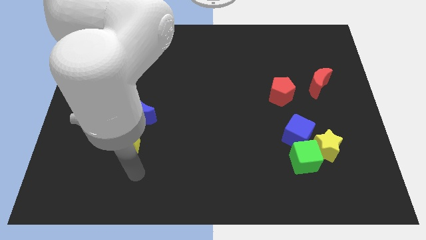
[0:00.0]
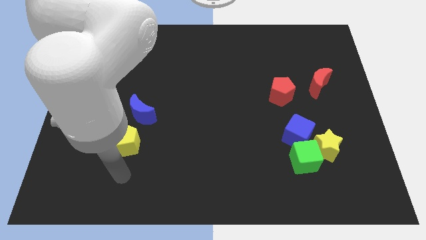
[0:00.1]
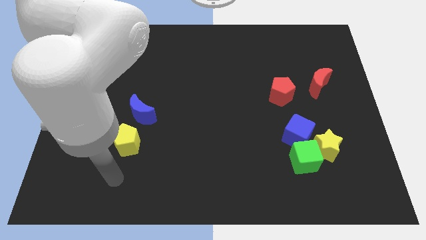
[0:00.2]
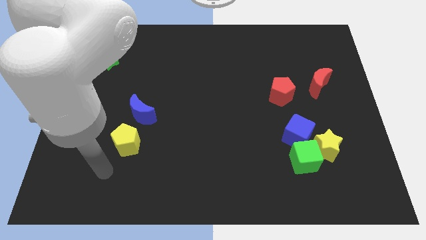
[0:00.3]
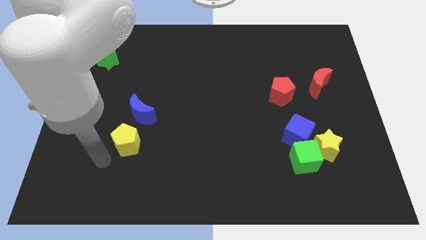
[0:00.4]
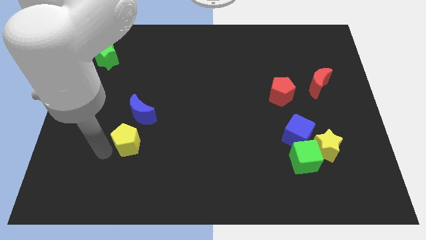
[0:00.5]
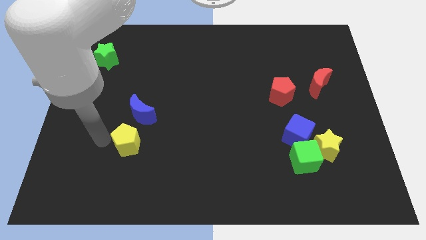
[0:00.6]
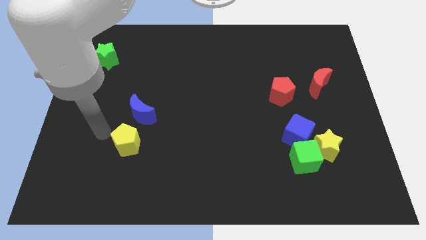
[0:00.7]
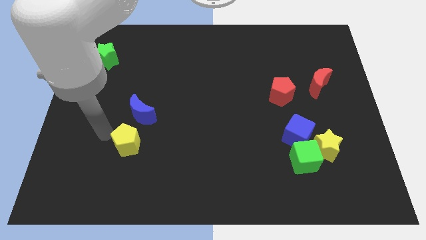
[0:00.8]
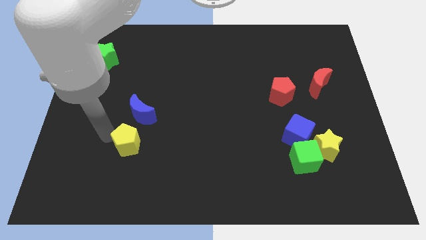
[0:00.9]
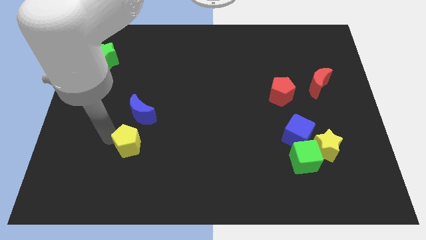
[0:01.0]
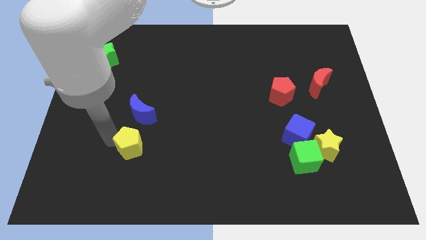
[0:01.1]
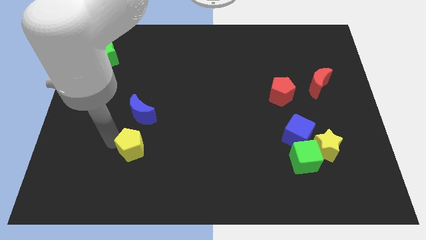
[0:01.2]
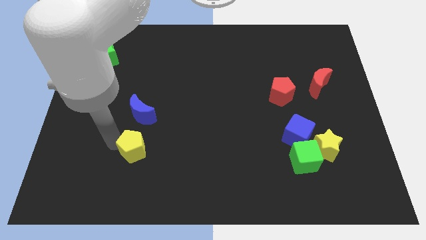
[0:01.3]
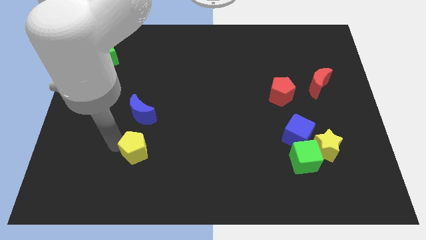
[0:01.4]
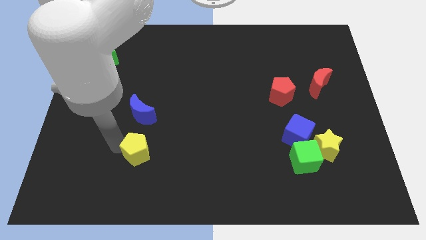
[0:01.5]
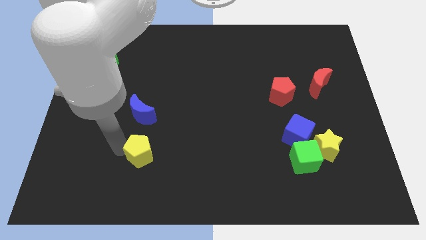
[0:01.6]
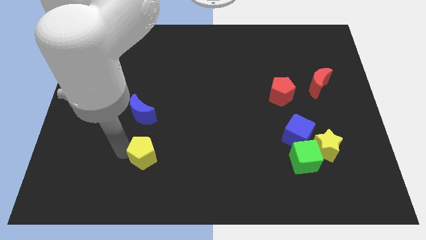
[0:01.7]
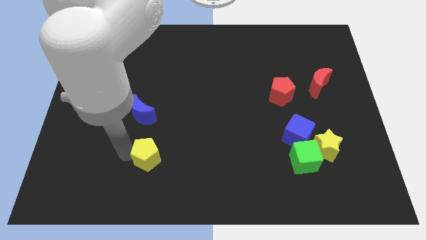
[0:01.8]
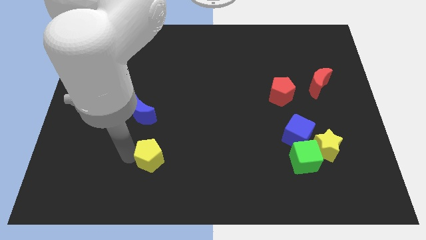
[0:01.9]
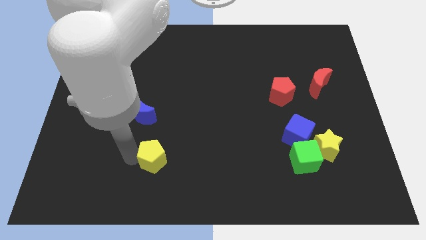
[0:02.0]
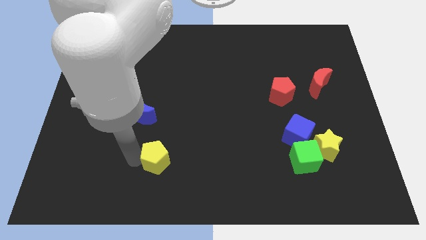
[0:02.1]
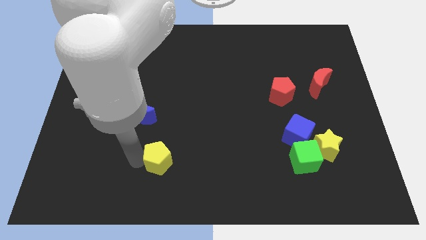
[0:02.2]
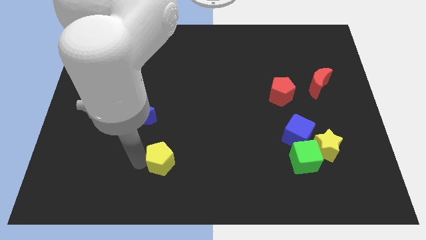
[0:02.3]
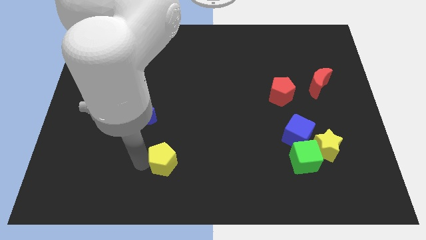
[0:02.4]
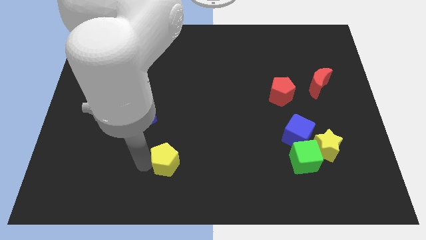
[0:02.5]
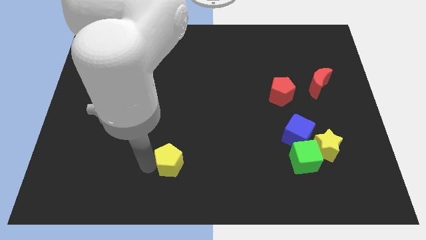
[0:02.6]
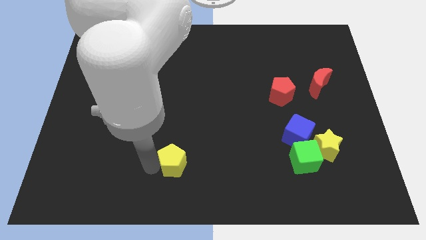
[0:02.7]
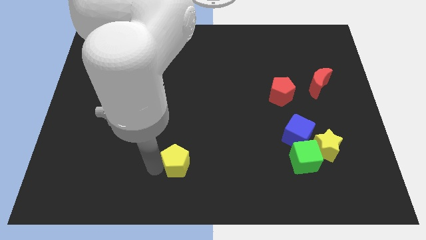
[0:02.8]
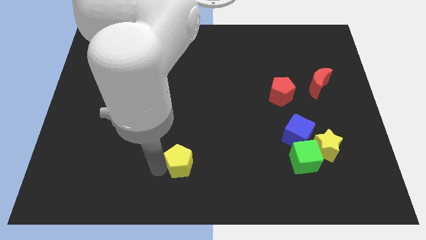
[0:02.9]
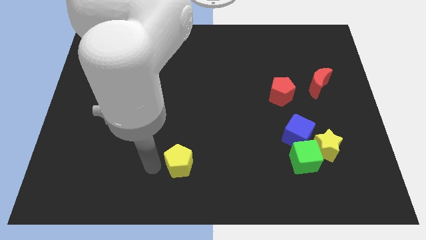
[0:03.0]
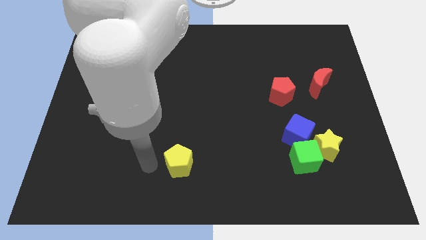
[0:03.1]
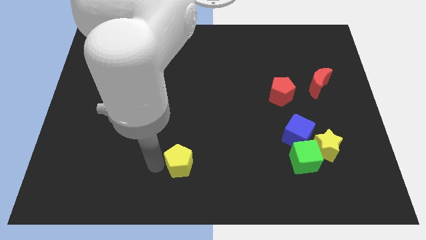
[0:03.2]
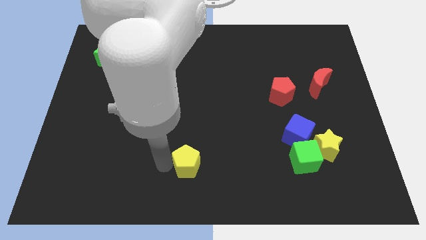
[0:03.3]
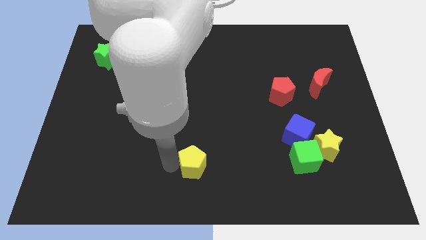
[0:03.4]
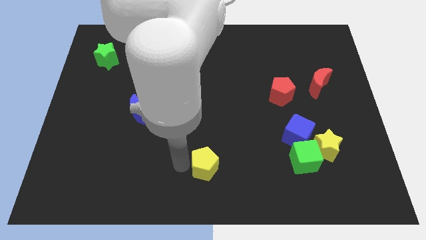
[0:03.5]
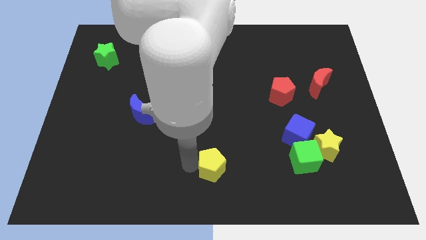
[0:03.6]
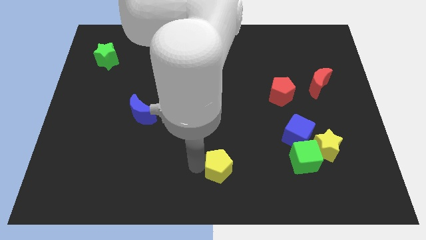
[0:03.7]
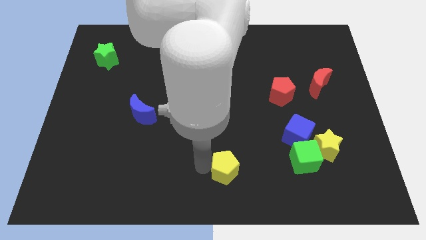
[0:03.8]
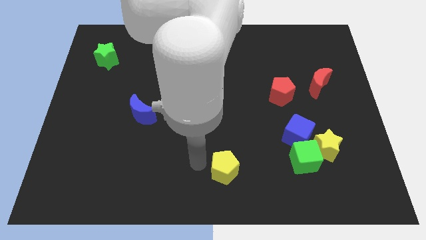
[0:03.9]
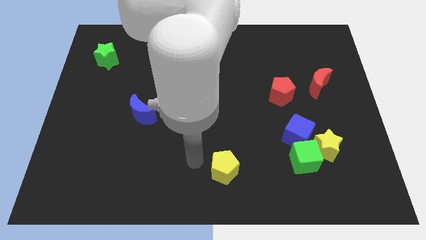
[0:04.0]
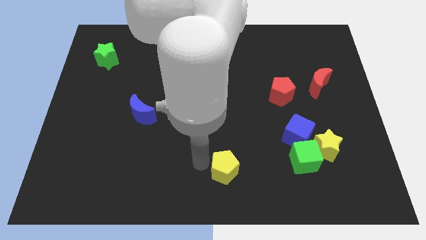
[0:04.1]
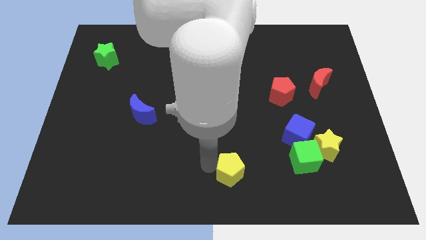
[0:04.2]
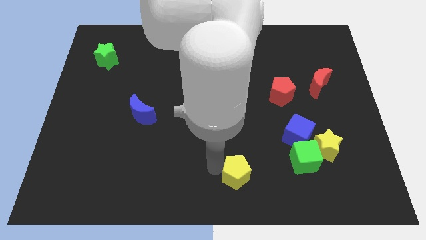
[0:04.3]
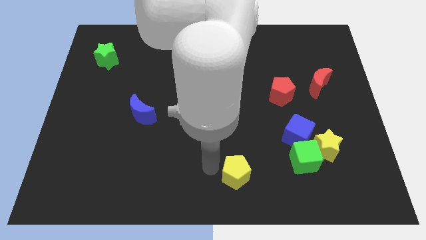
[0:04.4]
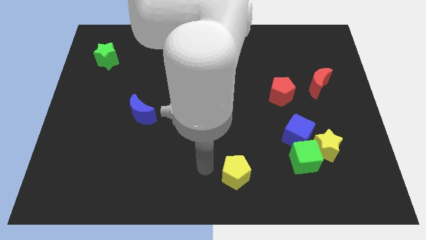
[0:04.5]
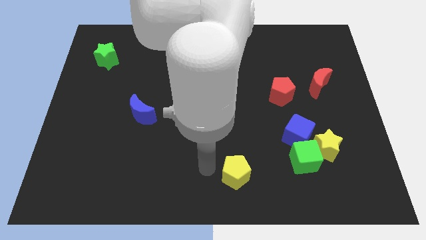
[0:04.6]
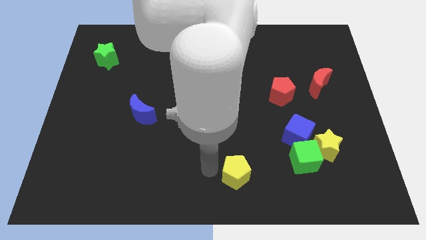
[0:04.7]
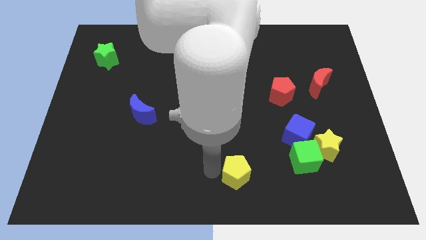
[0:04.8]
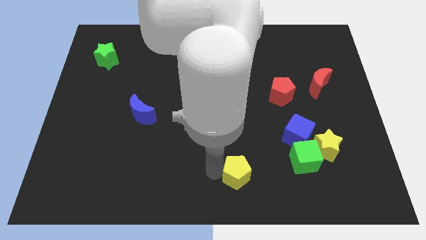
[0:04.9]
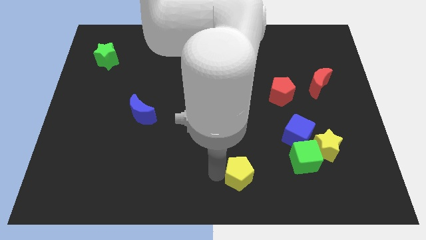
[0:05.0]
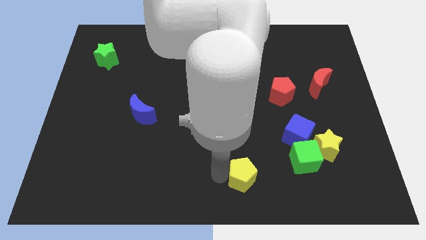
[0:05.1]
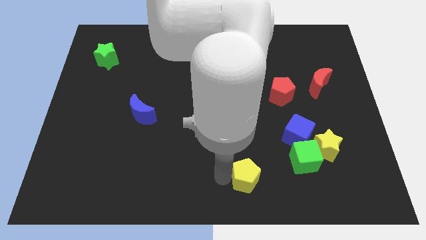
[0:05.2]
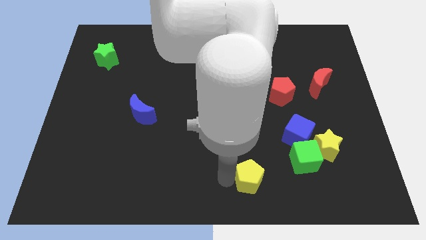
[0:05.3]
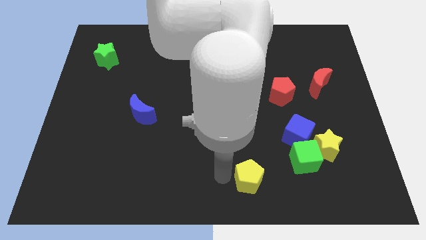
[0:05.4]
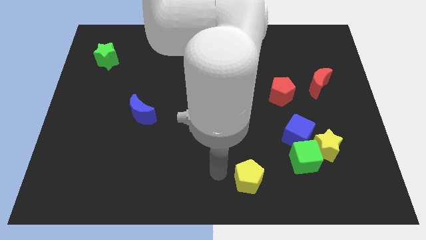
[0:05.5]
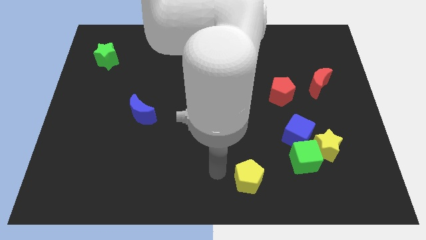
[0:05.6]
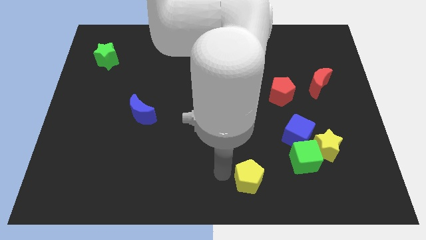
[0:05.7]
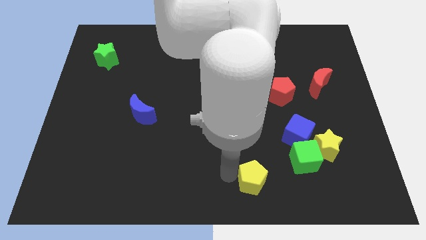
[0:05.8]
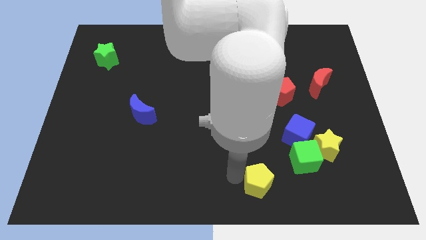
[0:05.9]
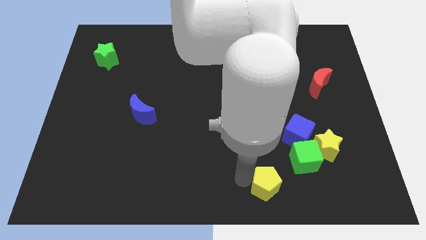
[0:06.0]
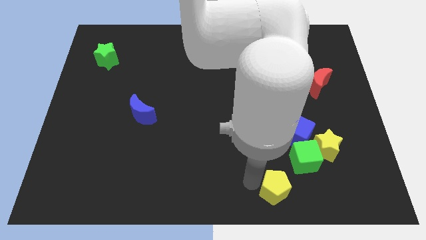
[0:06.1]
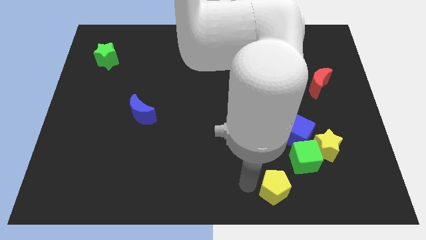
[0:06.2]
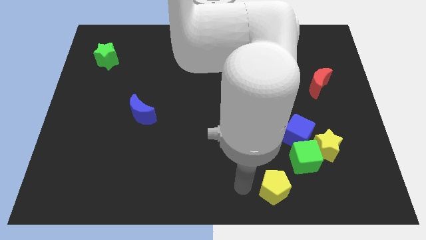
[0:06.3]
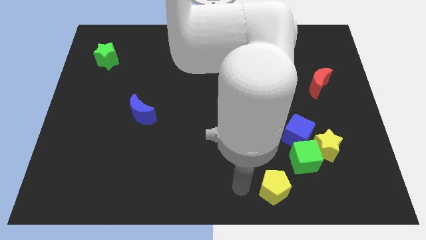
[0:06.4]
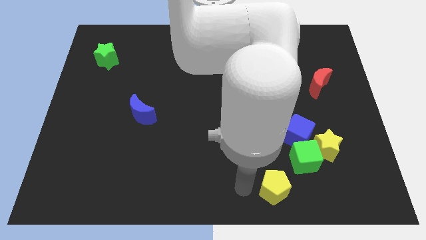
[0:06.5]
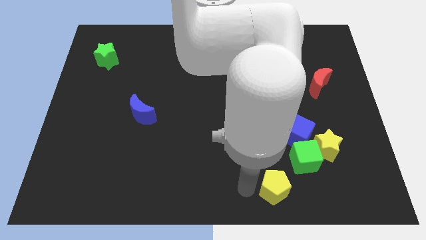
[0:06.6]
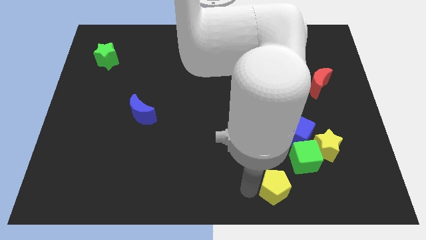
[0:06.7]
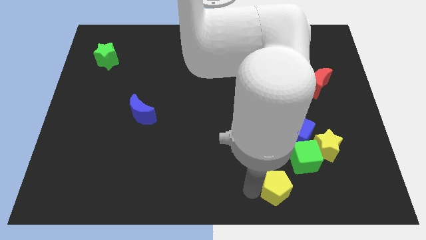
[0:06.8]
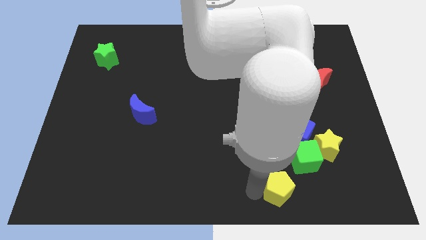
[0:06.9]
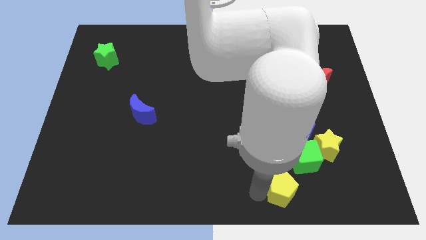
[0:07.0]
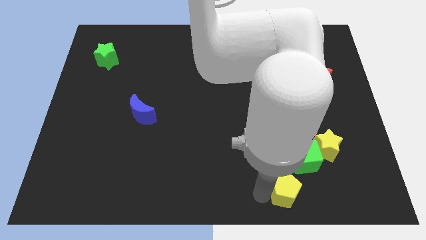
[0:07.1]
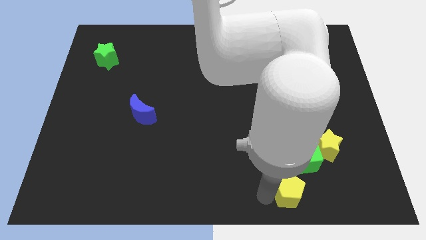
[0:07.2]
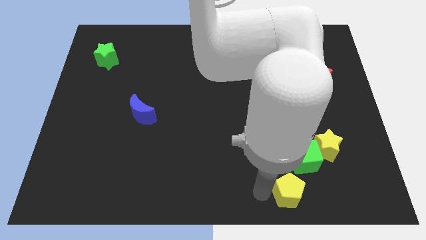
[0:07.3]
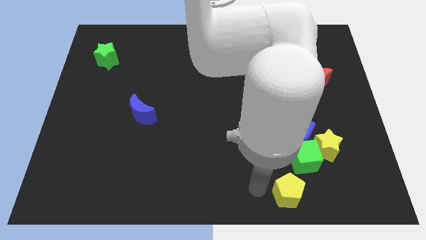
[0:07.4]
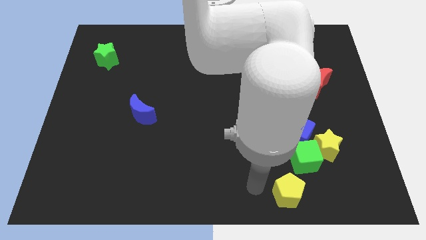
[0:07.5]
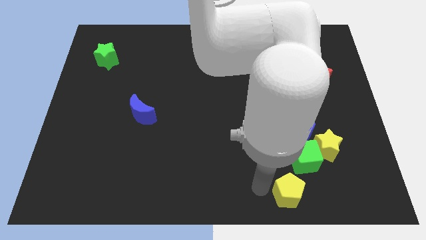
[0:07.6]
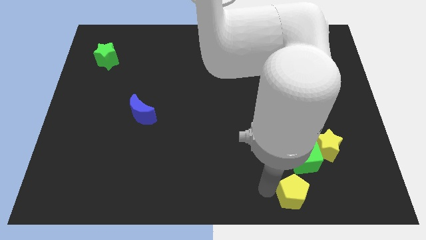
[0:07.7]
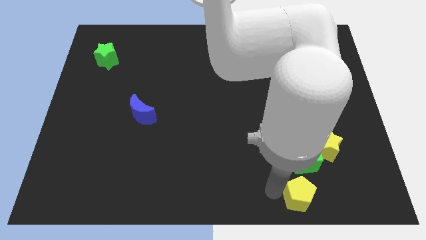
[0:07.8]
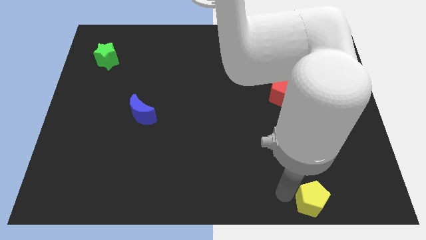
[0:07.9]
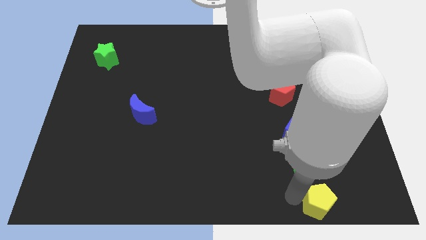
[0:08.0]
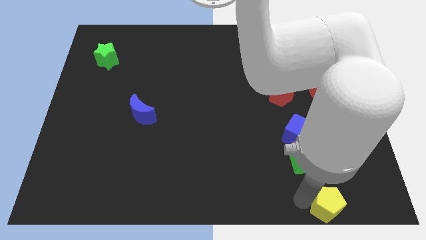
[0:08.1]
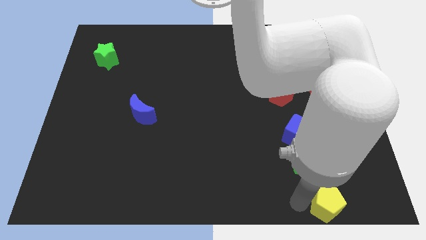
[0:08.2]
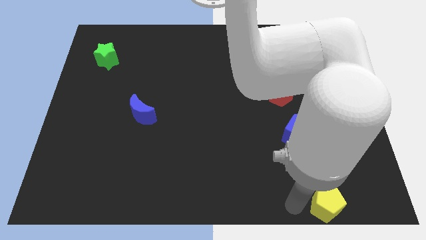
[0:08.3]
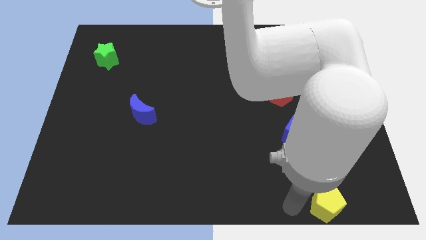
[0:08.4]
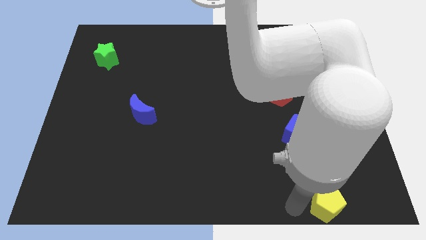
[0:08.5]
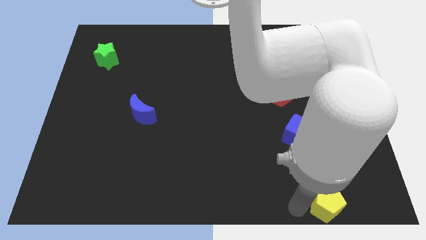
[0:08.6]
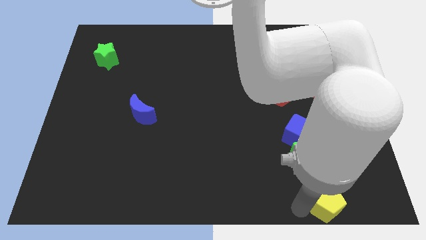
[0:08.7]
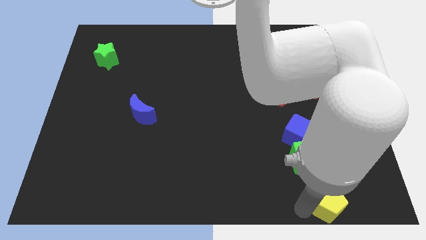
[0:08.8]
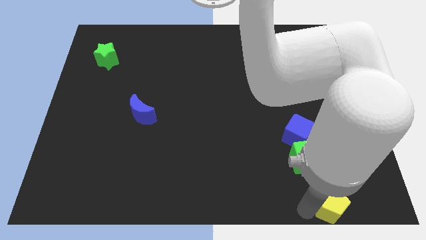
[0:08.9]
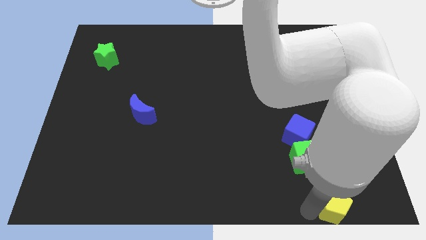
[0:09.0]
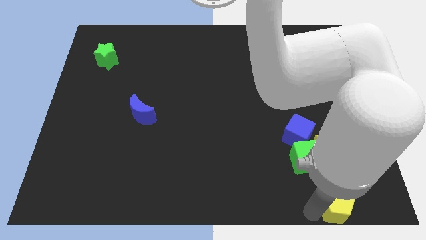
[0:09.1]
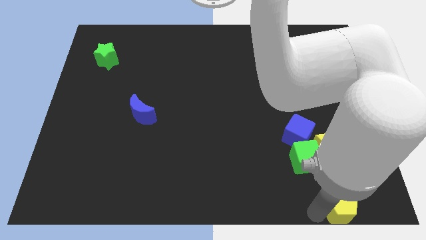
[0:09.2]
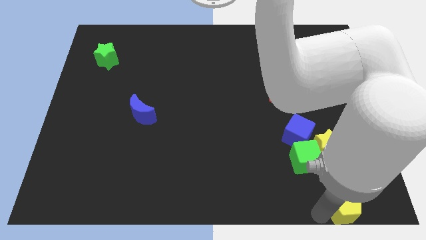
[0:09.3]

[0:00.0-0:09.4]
put the yellow pentagon to the lower right corner
